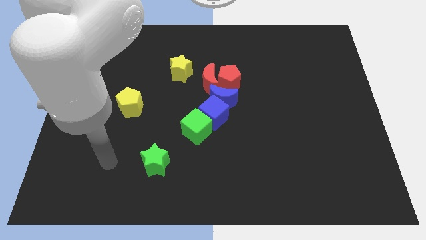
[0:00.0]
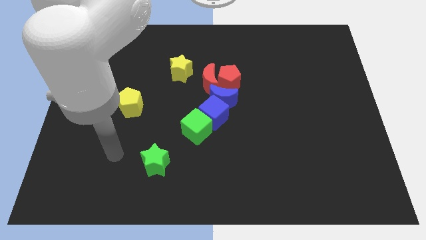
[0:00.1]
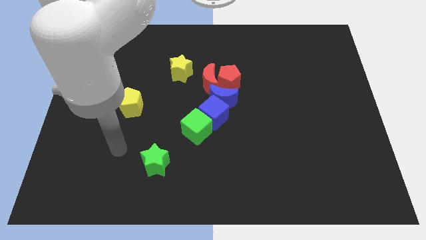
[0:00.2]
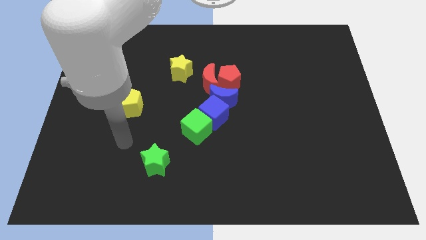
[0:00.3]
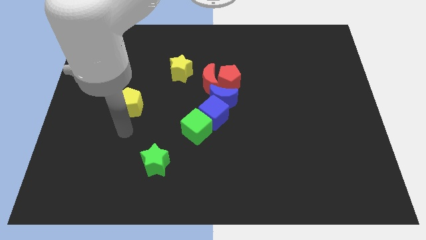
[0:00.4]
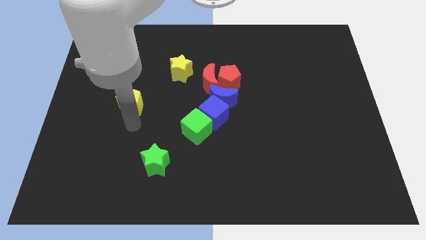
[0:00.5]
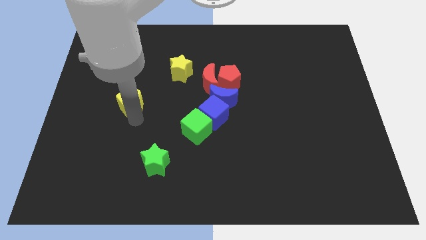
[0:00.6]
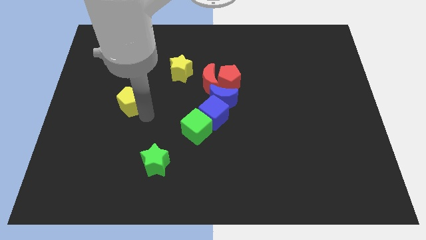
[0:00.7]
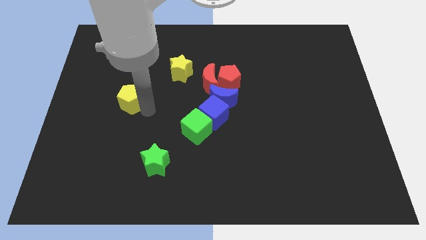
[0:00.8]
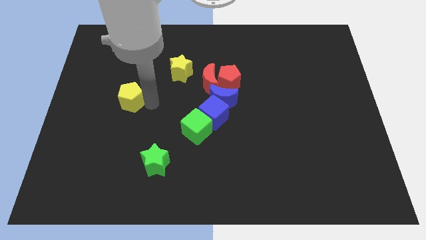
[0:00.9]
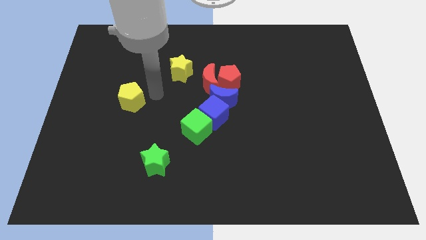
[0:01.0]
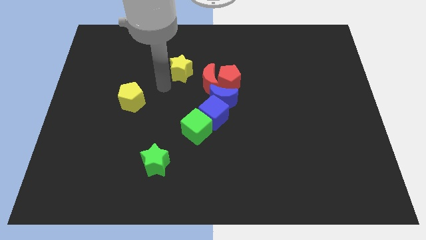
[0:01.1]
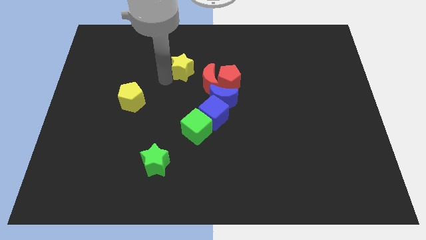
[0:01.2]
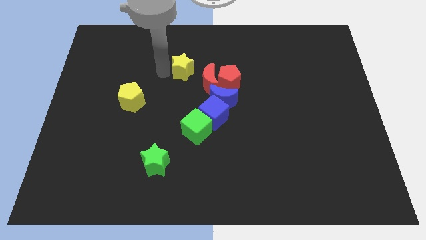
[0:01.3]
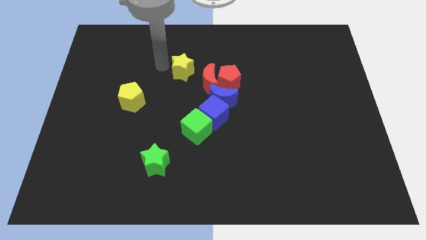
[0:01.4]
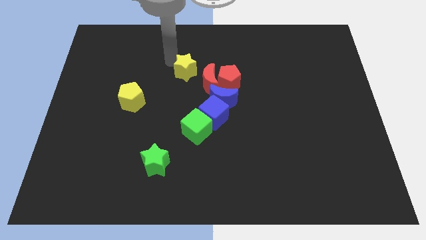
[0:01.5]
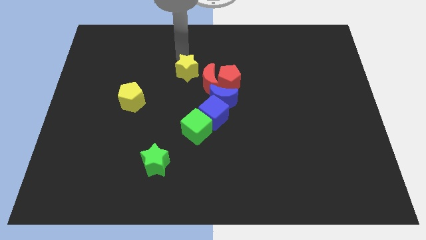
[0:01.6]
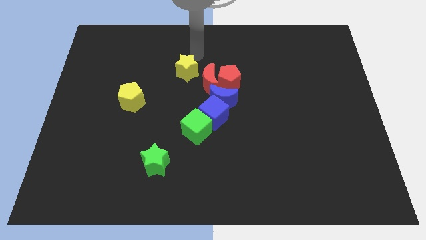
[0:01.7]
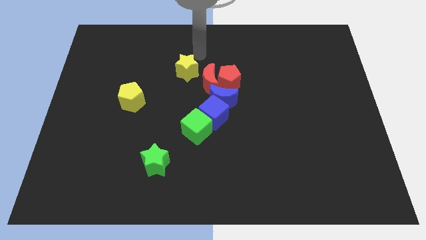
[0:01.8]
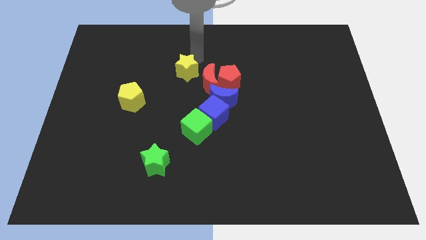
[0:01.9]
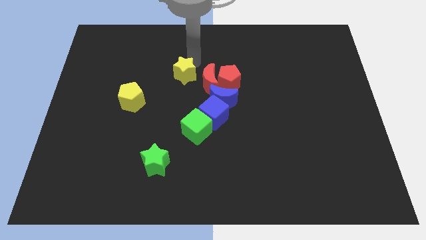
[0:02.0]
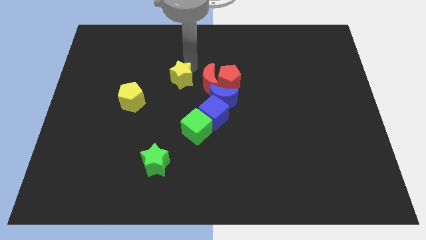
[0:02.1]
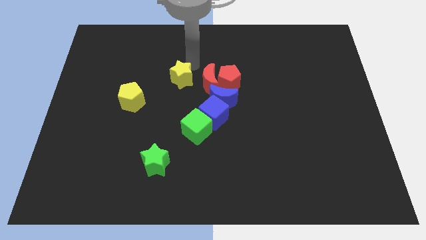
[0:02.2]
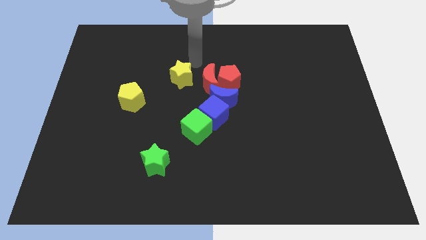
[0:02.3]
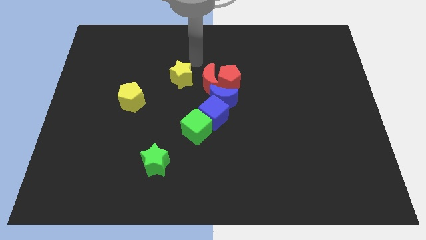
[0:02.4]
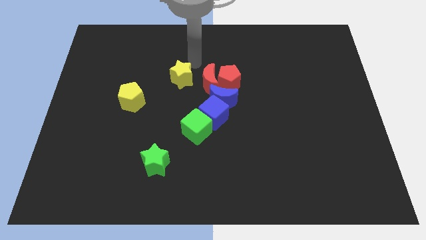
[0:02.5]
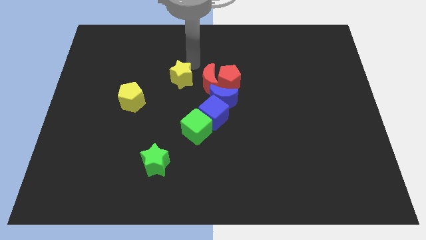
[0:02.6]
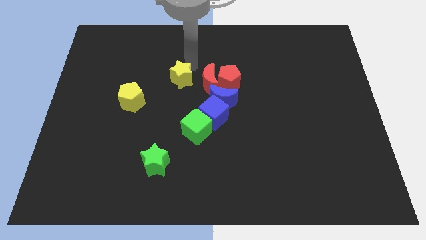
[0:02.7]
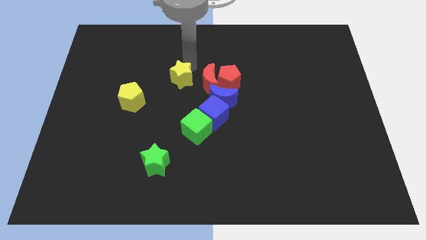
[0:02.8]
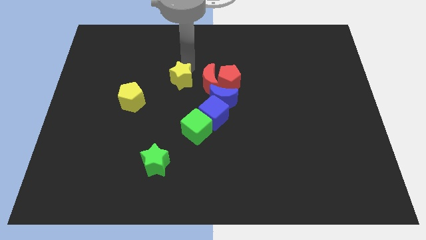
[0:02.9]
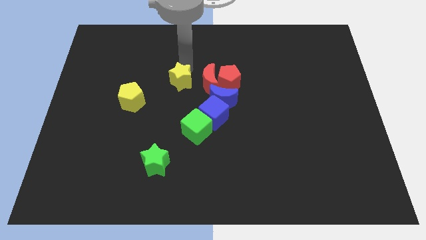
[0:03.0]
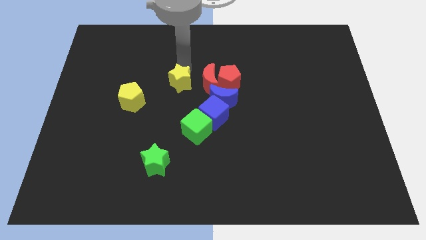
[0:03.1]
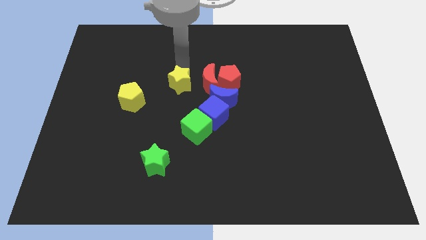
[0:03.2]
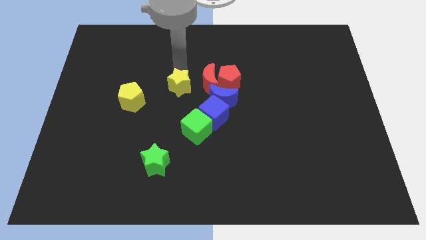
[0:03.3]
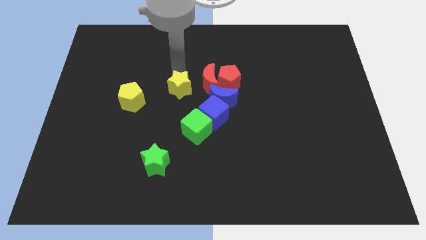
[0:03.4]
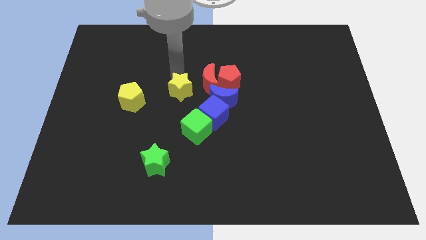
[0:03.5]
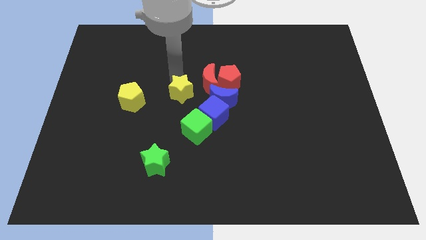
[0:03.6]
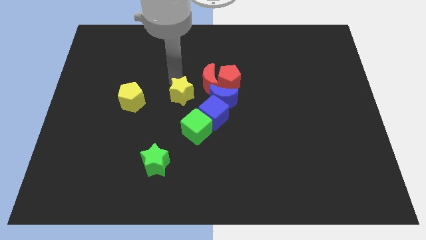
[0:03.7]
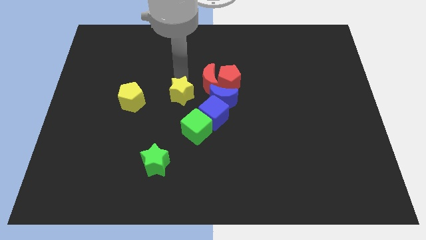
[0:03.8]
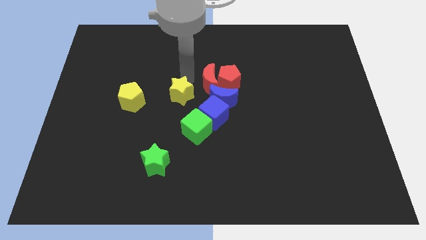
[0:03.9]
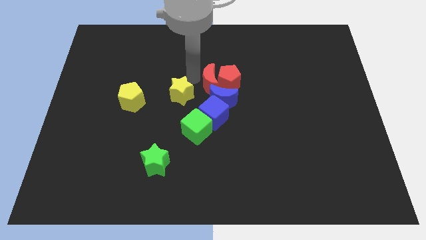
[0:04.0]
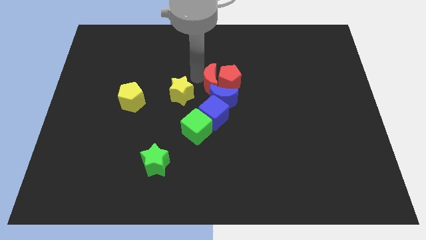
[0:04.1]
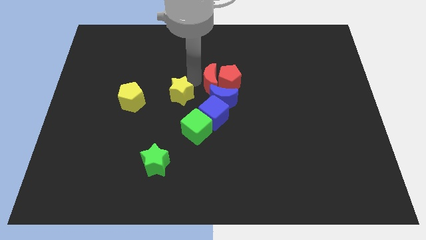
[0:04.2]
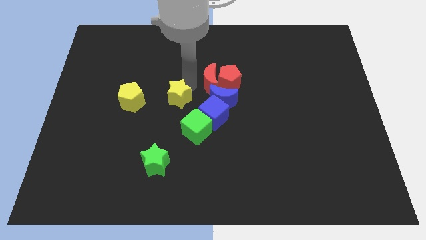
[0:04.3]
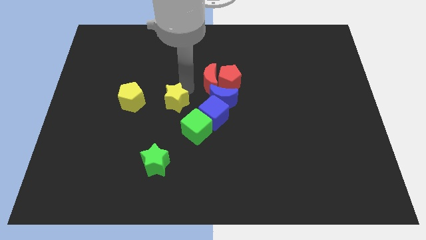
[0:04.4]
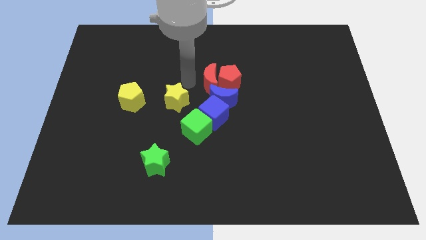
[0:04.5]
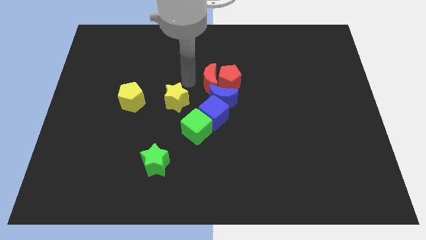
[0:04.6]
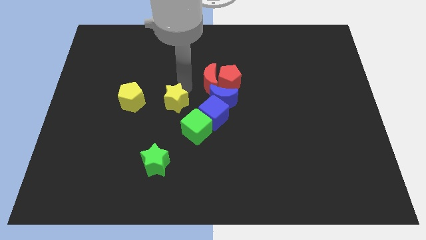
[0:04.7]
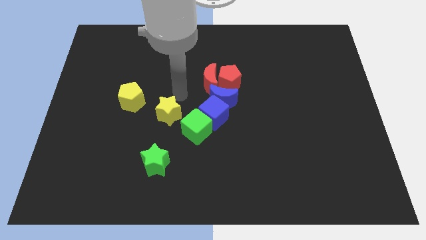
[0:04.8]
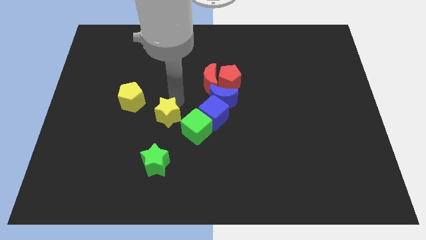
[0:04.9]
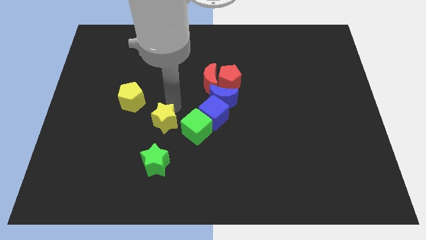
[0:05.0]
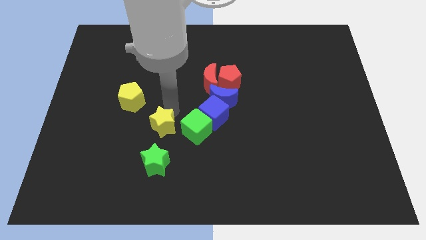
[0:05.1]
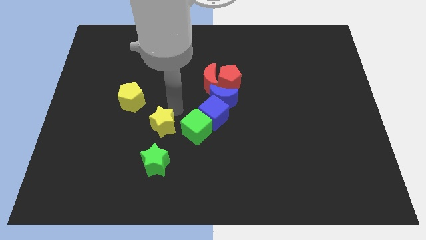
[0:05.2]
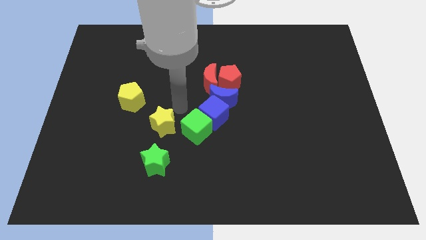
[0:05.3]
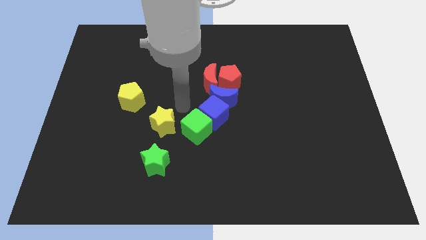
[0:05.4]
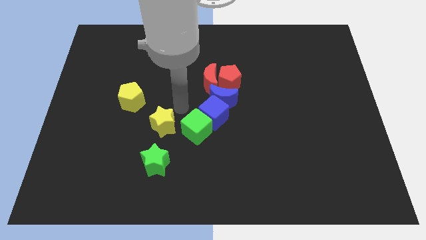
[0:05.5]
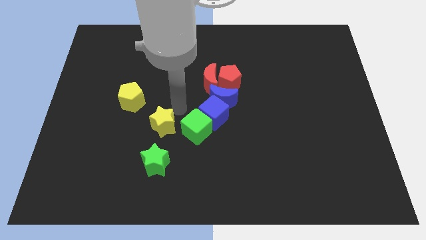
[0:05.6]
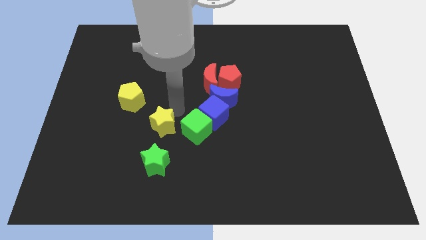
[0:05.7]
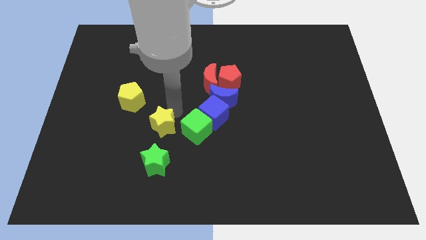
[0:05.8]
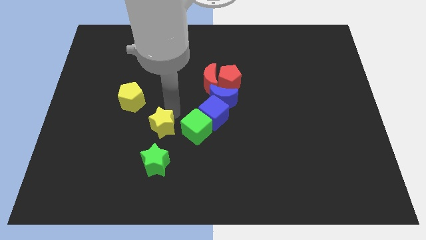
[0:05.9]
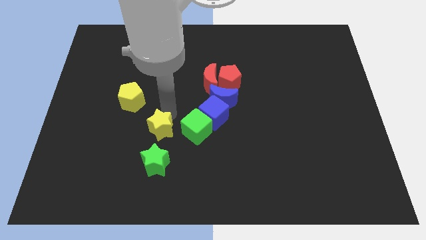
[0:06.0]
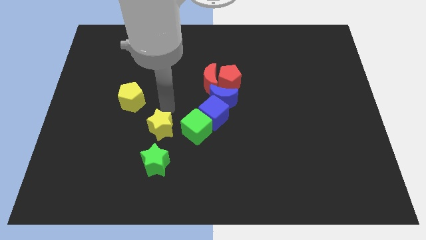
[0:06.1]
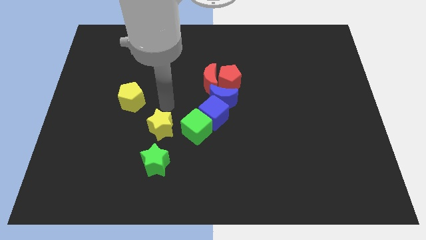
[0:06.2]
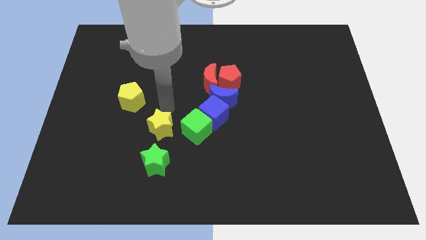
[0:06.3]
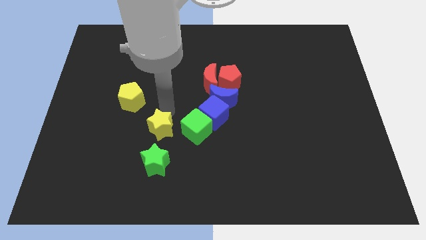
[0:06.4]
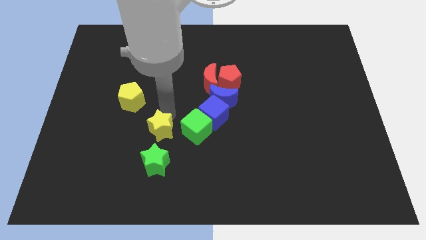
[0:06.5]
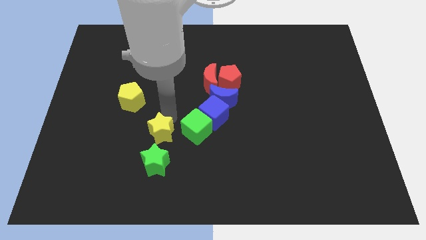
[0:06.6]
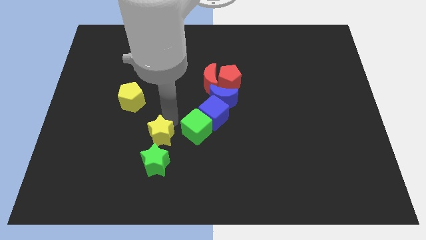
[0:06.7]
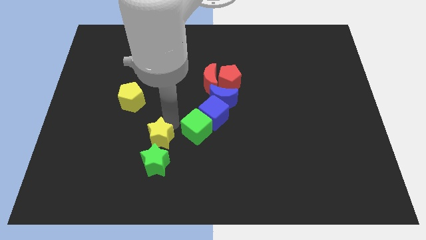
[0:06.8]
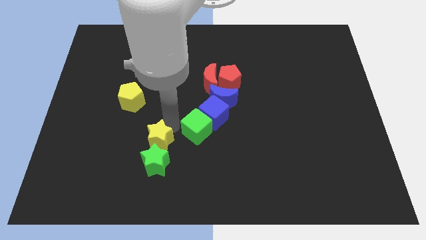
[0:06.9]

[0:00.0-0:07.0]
push the yellow star to the green star

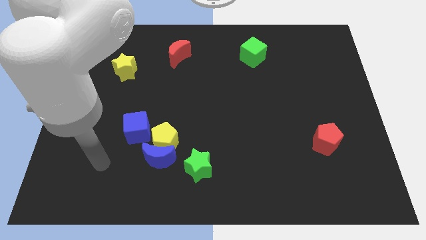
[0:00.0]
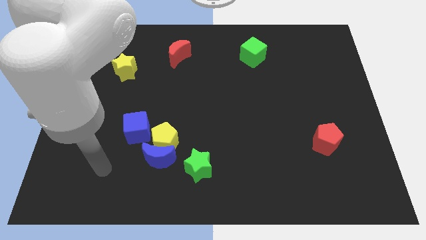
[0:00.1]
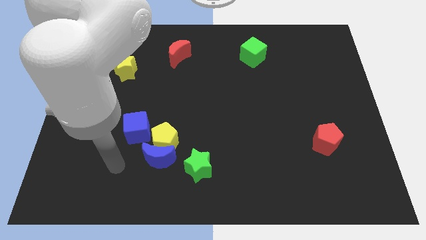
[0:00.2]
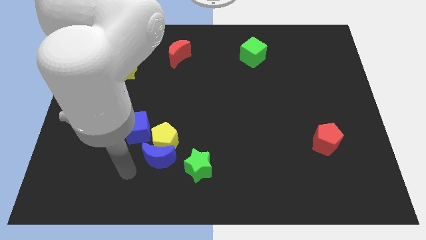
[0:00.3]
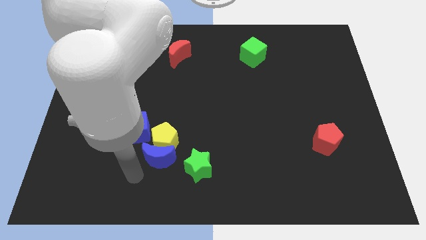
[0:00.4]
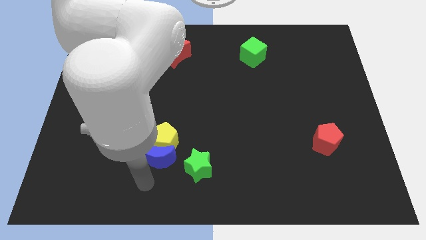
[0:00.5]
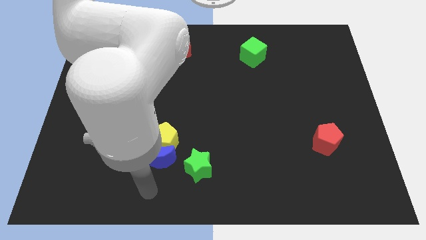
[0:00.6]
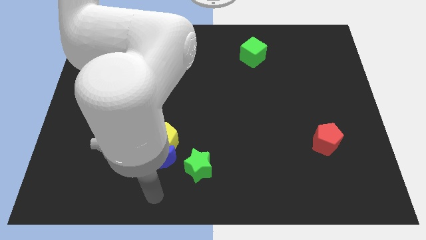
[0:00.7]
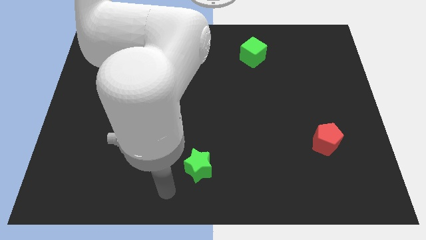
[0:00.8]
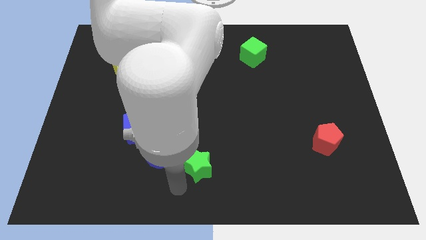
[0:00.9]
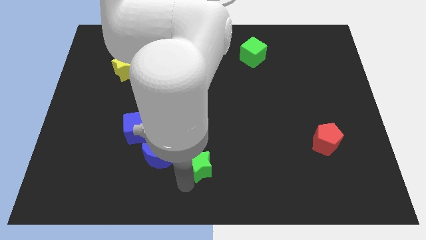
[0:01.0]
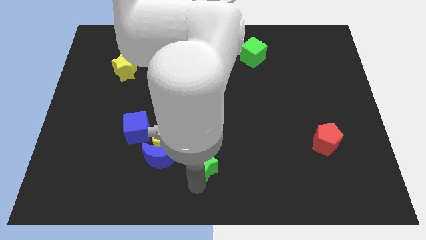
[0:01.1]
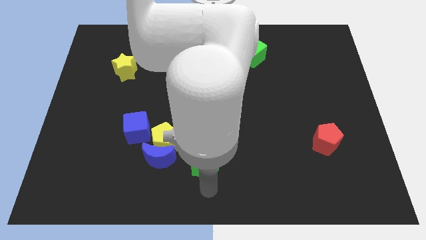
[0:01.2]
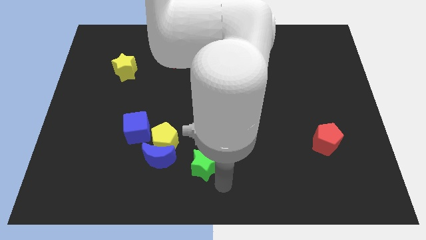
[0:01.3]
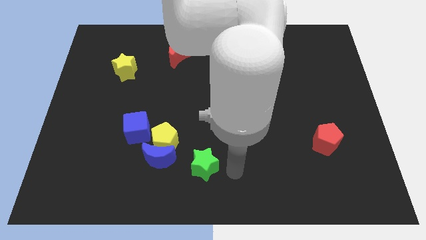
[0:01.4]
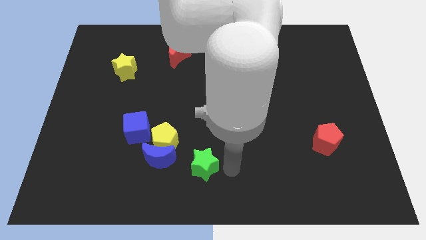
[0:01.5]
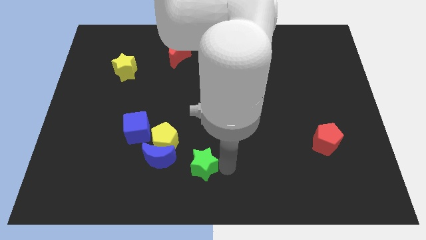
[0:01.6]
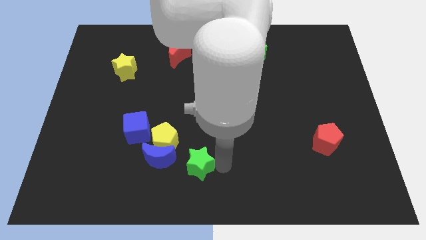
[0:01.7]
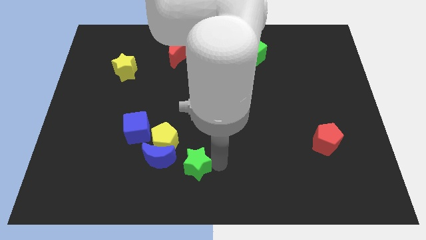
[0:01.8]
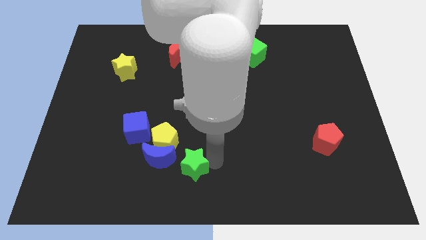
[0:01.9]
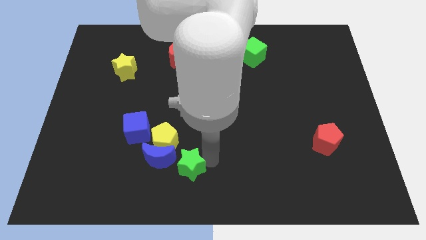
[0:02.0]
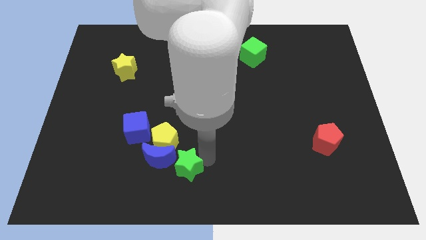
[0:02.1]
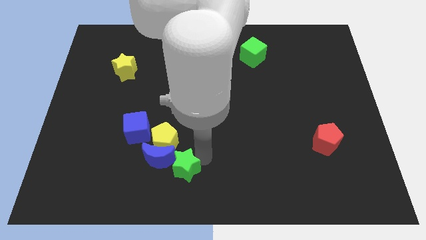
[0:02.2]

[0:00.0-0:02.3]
move the green star to the blue moon
